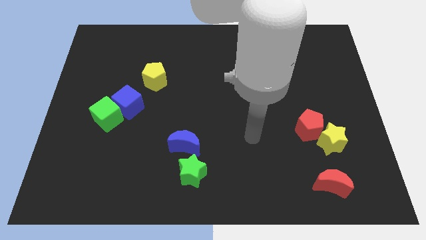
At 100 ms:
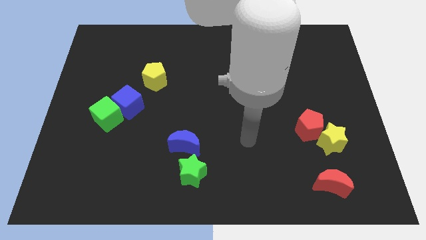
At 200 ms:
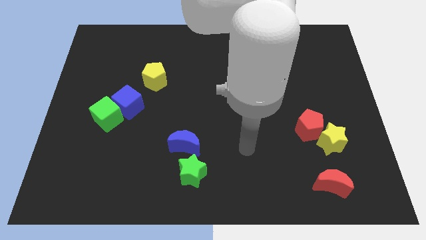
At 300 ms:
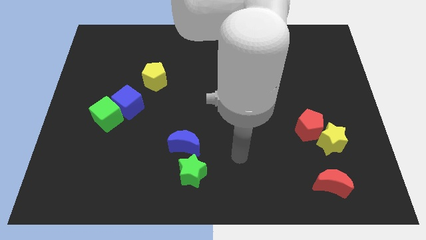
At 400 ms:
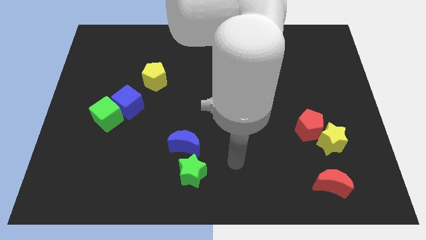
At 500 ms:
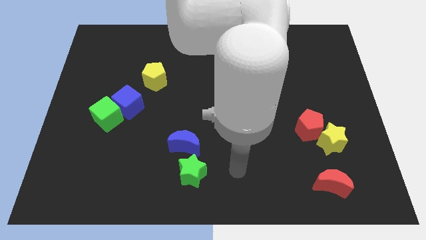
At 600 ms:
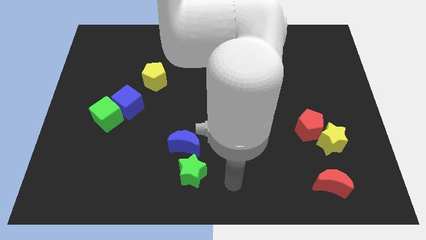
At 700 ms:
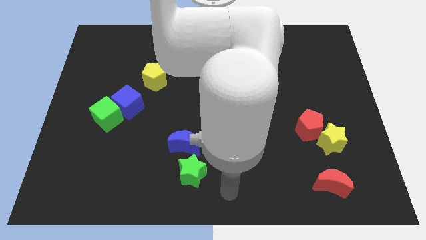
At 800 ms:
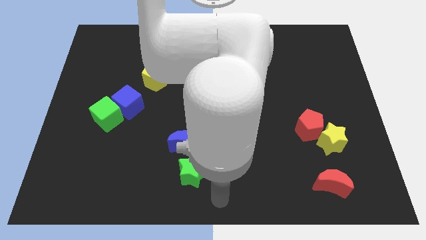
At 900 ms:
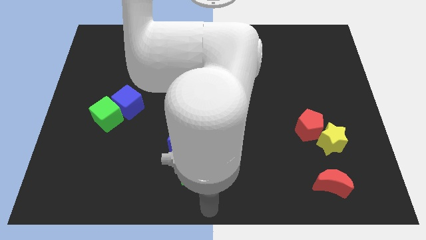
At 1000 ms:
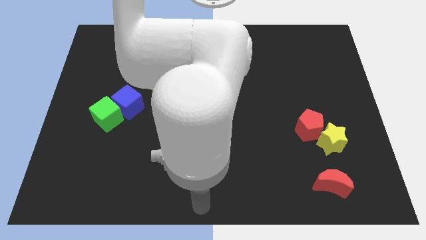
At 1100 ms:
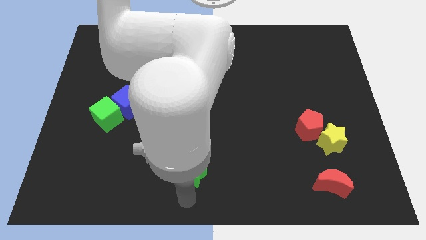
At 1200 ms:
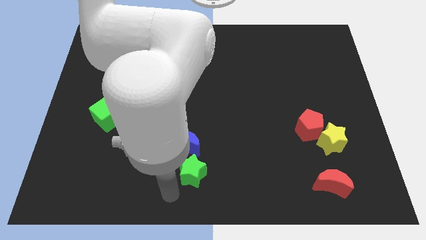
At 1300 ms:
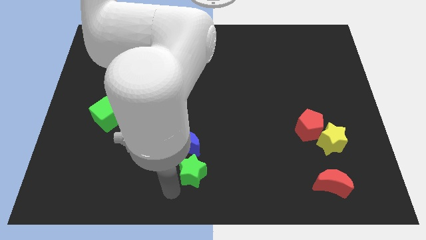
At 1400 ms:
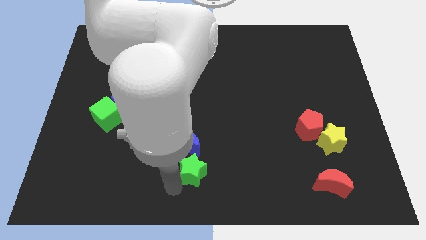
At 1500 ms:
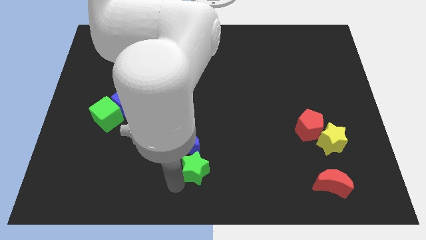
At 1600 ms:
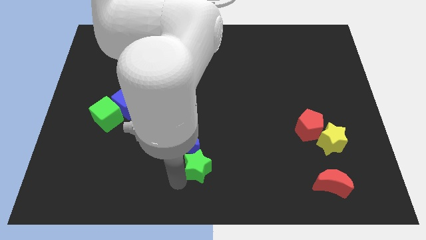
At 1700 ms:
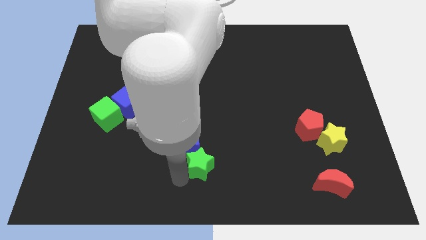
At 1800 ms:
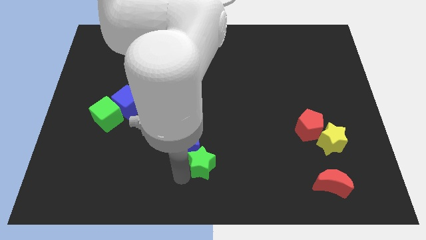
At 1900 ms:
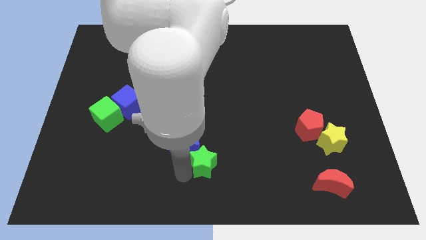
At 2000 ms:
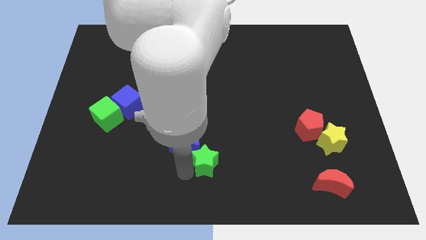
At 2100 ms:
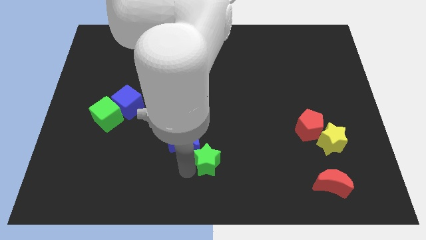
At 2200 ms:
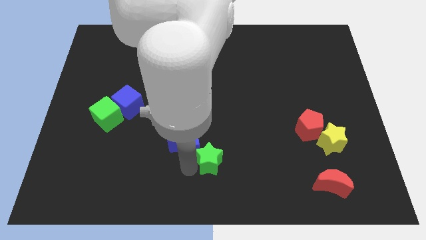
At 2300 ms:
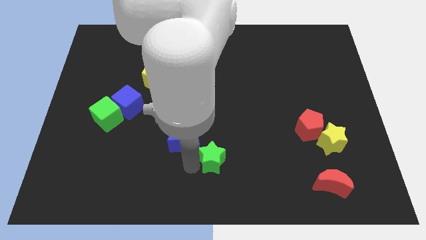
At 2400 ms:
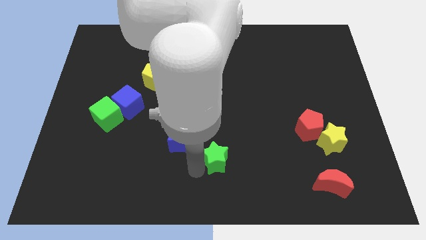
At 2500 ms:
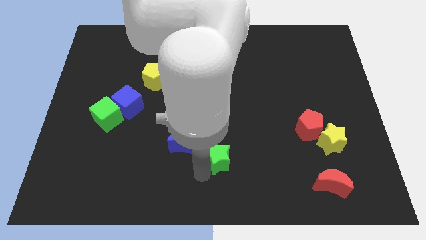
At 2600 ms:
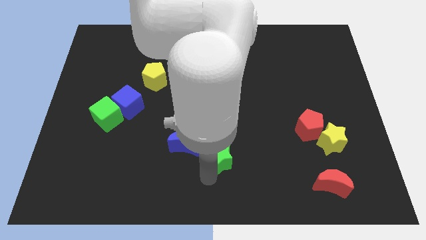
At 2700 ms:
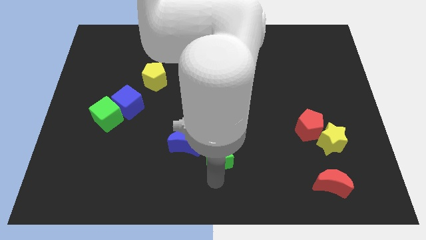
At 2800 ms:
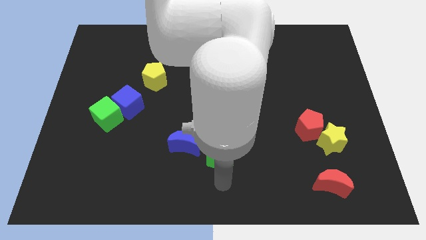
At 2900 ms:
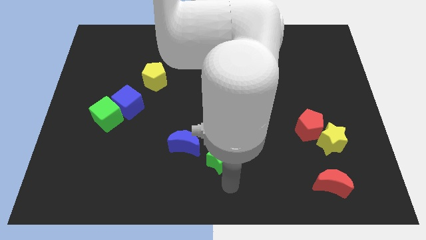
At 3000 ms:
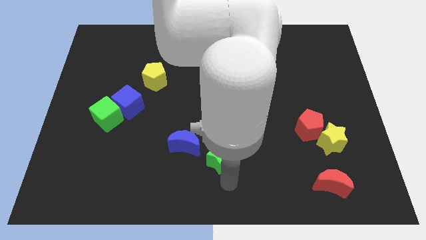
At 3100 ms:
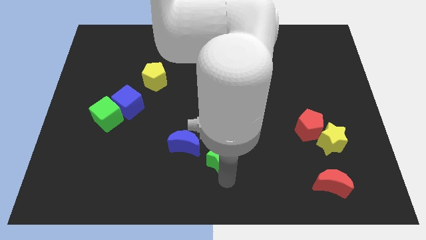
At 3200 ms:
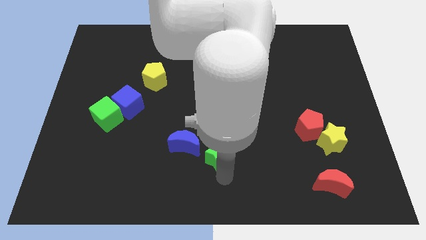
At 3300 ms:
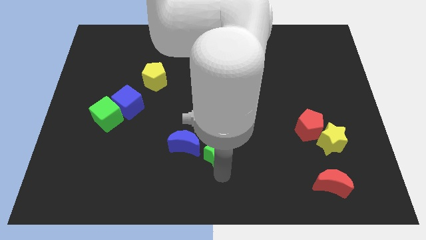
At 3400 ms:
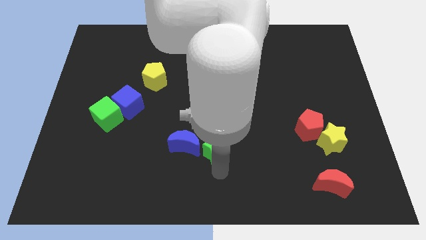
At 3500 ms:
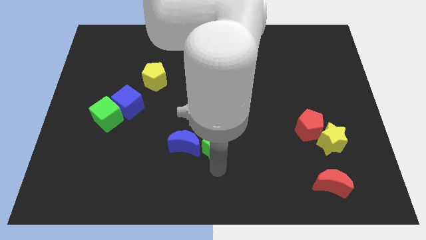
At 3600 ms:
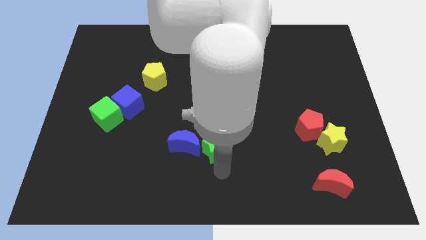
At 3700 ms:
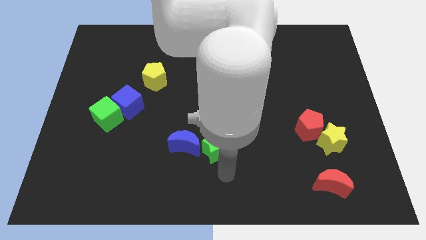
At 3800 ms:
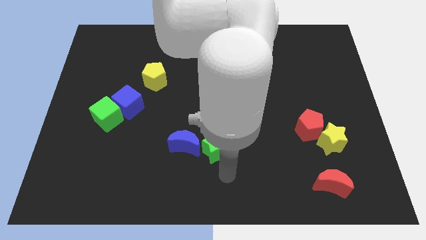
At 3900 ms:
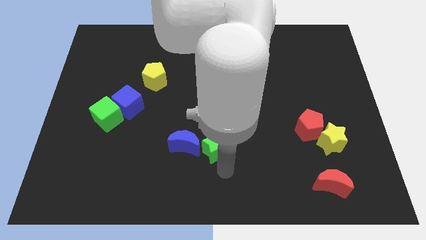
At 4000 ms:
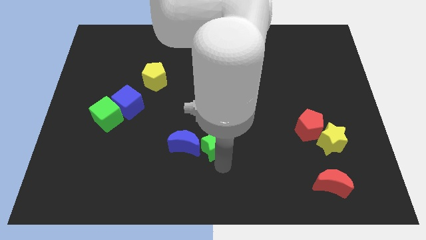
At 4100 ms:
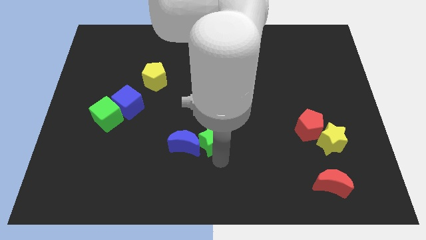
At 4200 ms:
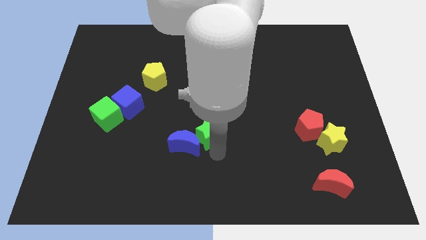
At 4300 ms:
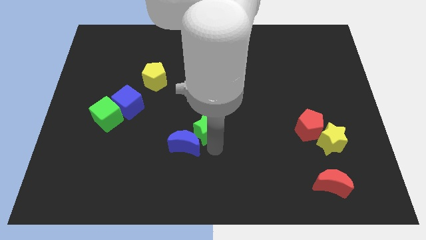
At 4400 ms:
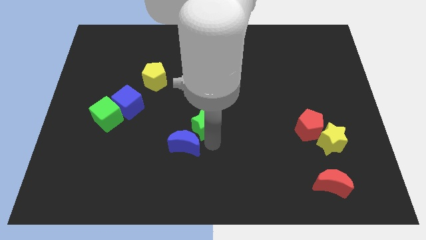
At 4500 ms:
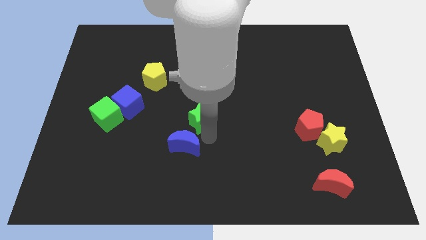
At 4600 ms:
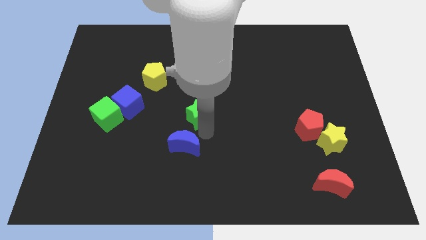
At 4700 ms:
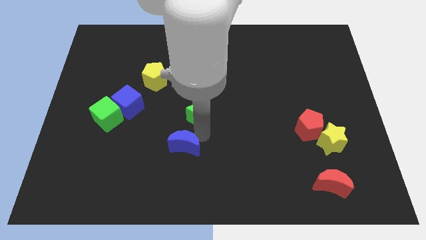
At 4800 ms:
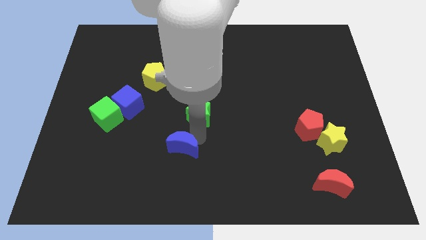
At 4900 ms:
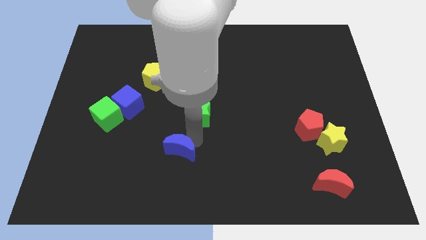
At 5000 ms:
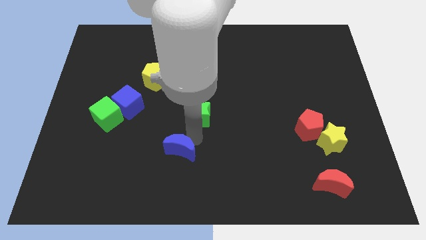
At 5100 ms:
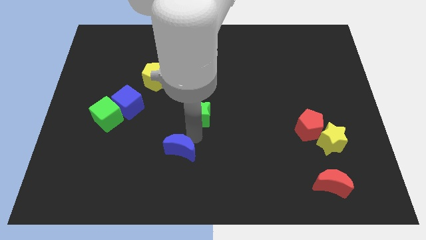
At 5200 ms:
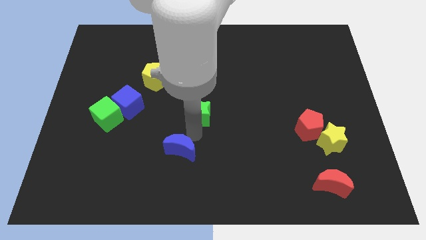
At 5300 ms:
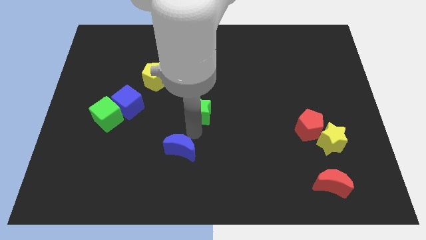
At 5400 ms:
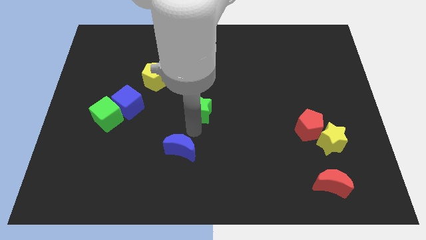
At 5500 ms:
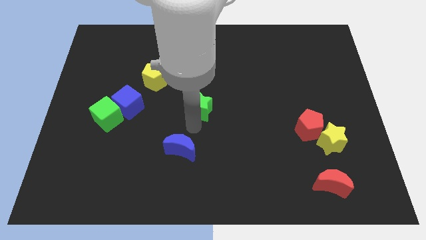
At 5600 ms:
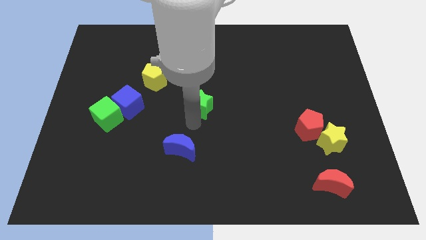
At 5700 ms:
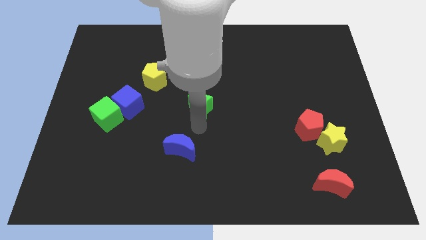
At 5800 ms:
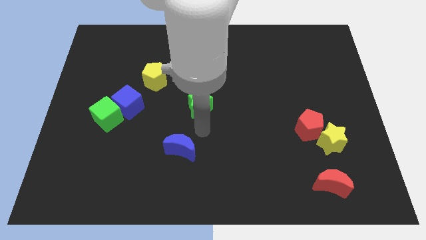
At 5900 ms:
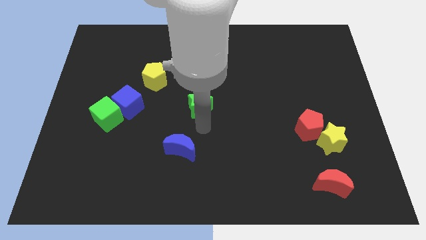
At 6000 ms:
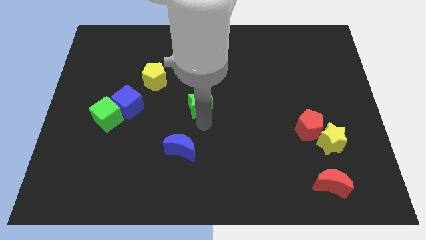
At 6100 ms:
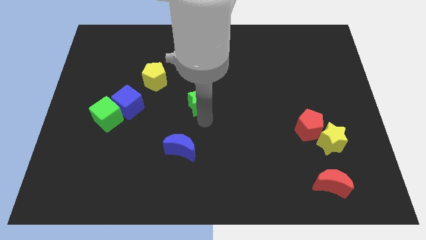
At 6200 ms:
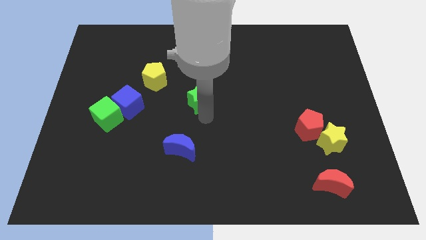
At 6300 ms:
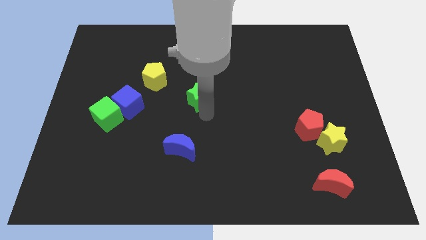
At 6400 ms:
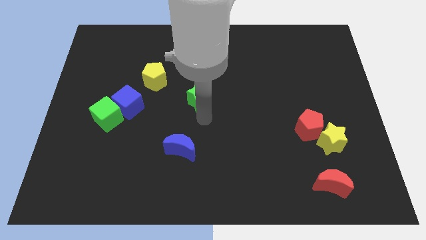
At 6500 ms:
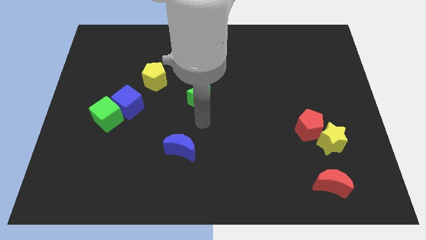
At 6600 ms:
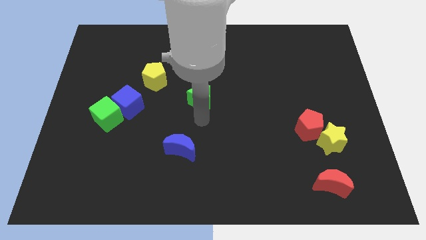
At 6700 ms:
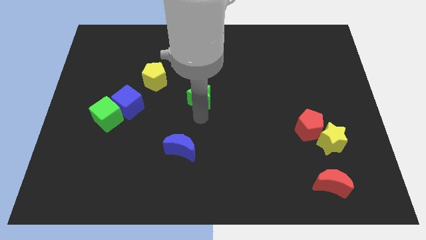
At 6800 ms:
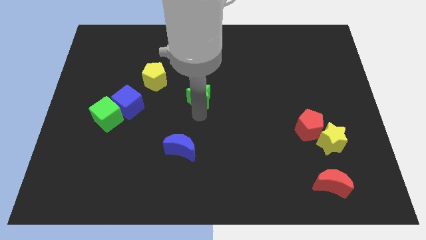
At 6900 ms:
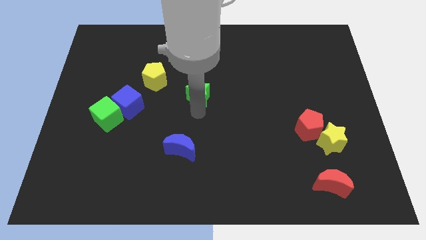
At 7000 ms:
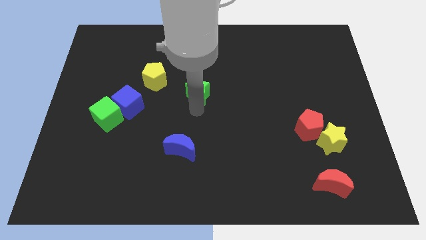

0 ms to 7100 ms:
move the green star right of the yellow pentagon
